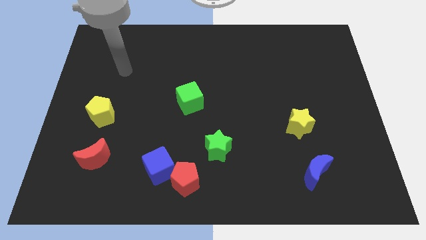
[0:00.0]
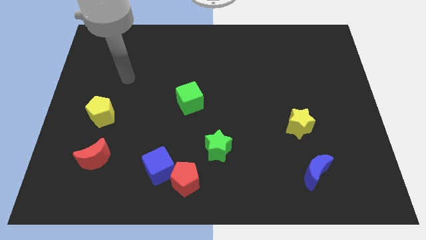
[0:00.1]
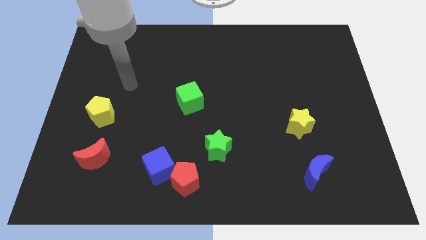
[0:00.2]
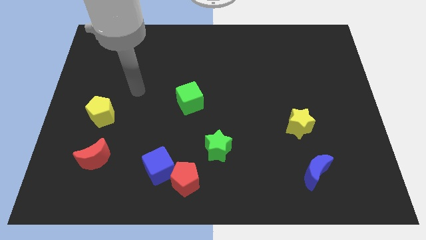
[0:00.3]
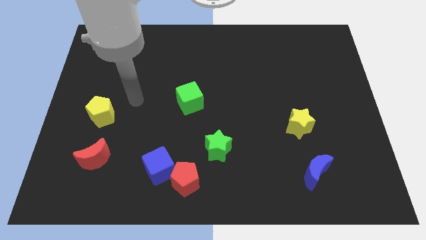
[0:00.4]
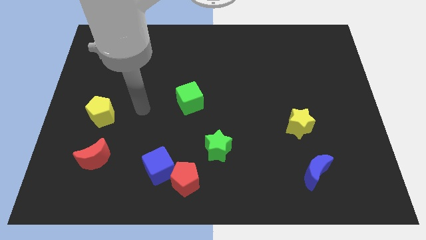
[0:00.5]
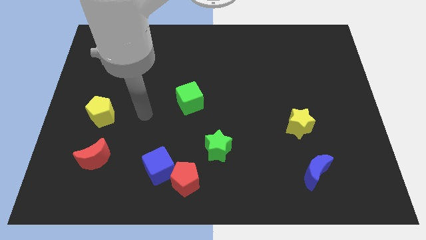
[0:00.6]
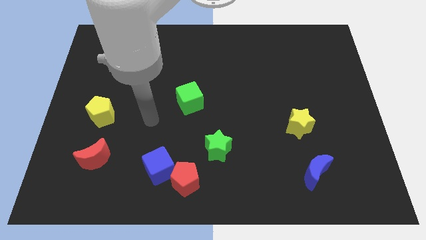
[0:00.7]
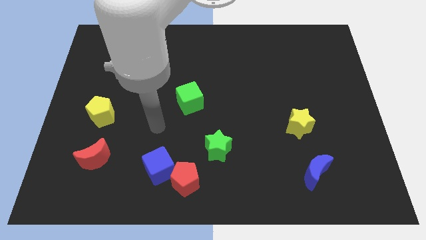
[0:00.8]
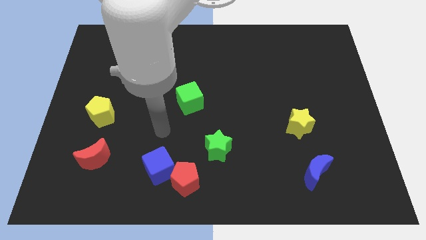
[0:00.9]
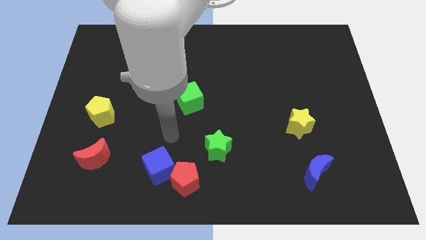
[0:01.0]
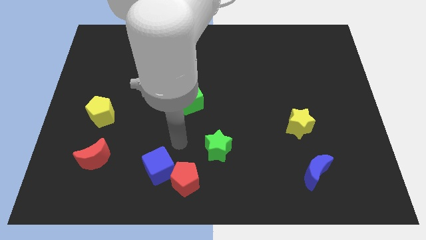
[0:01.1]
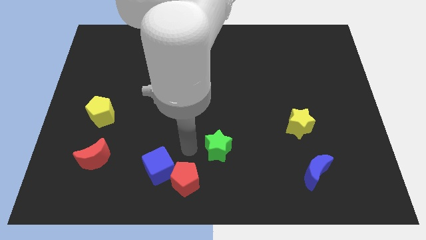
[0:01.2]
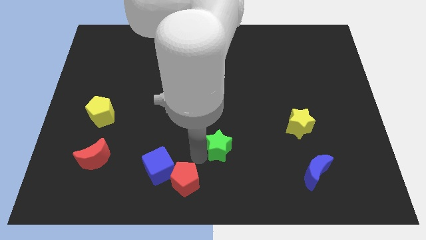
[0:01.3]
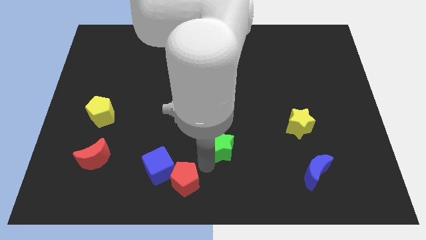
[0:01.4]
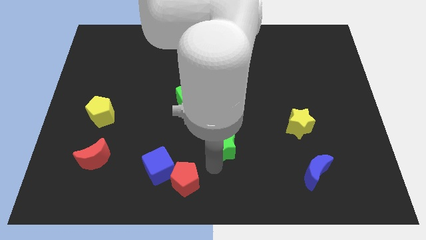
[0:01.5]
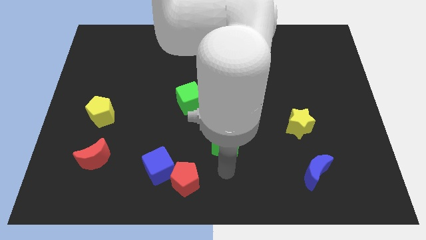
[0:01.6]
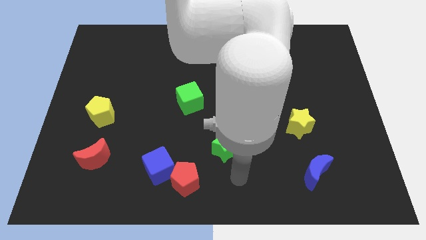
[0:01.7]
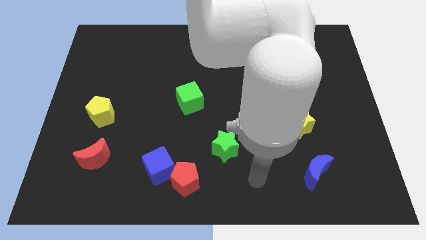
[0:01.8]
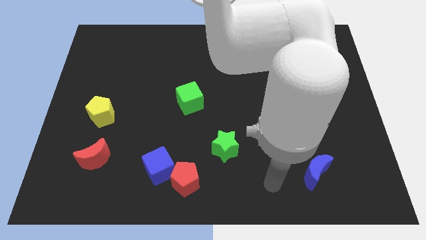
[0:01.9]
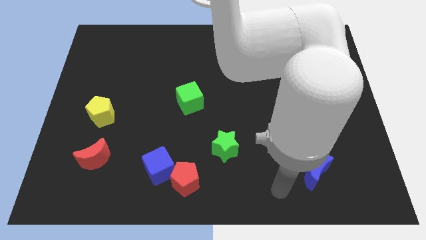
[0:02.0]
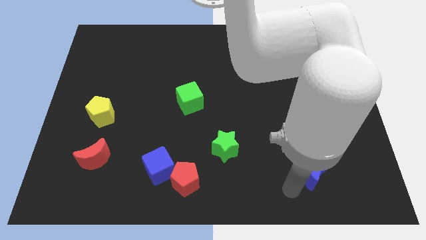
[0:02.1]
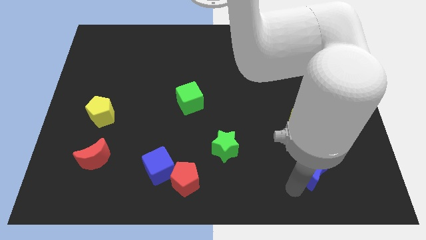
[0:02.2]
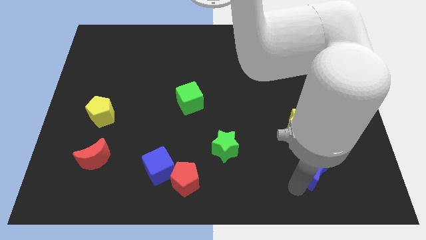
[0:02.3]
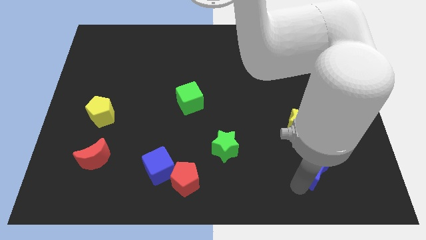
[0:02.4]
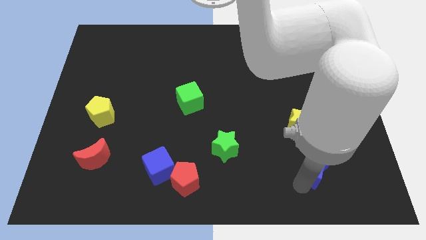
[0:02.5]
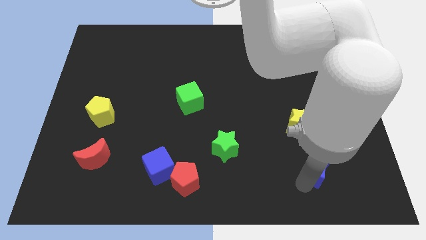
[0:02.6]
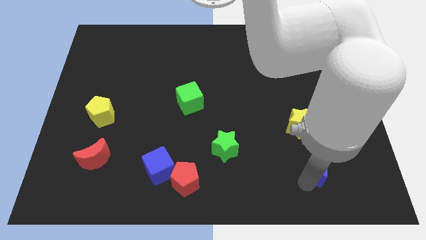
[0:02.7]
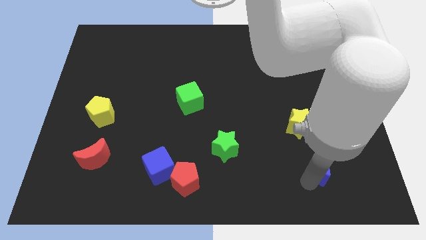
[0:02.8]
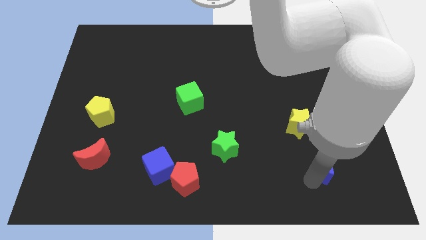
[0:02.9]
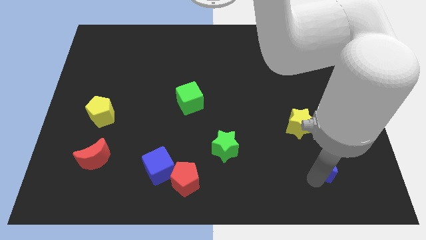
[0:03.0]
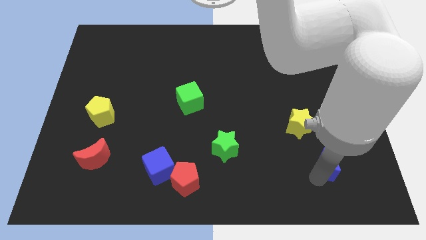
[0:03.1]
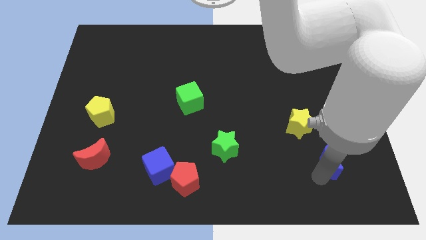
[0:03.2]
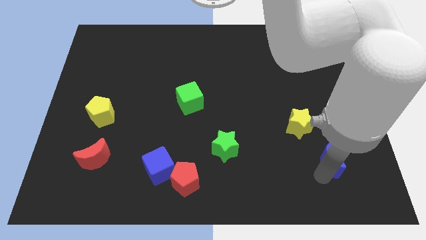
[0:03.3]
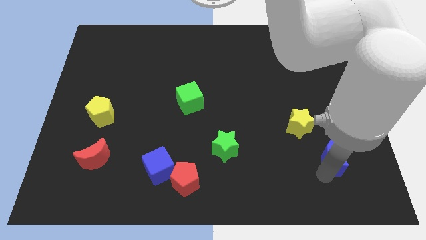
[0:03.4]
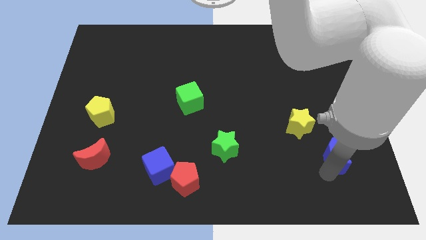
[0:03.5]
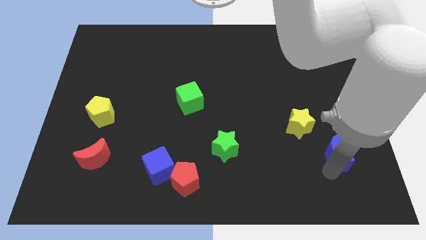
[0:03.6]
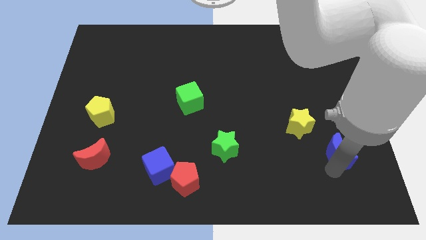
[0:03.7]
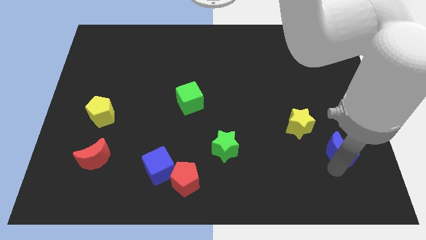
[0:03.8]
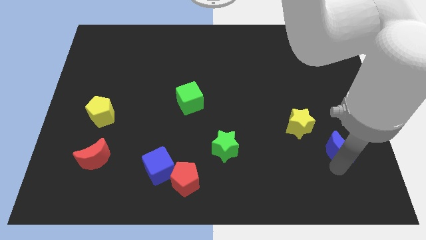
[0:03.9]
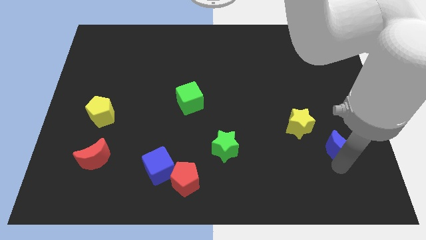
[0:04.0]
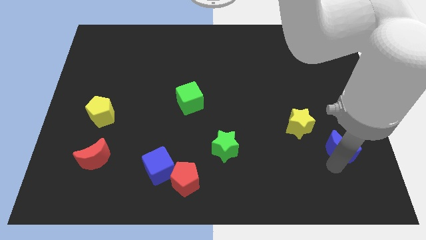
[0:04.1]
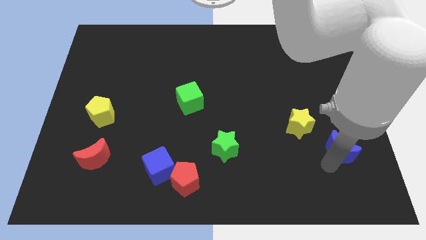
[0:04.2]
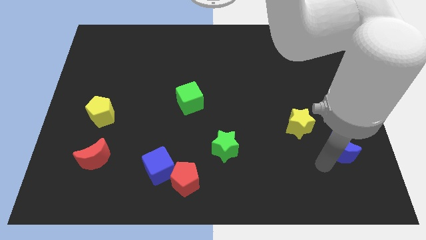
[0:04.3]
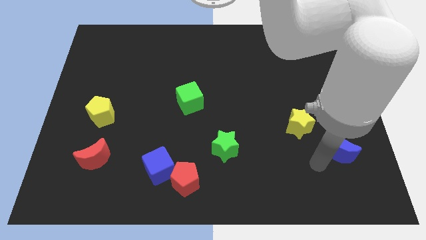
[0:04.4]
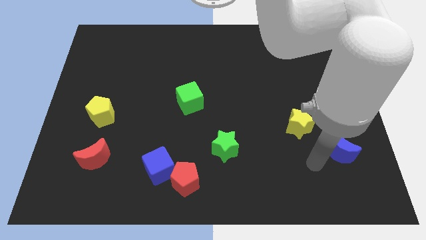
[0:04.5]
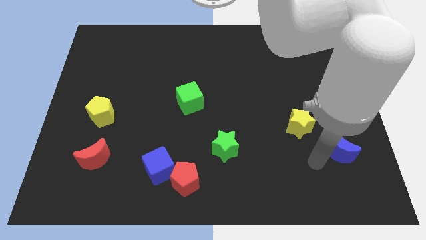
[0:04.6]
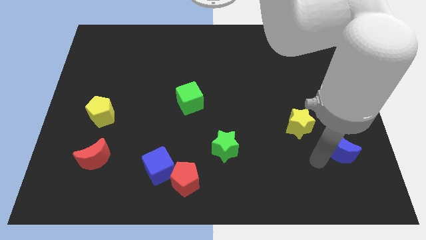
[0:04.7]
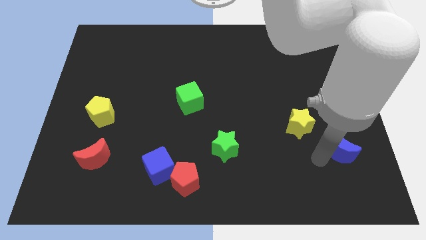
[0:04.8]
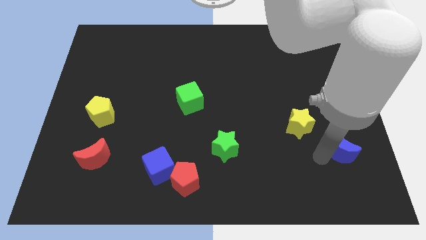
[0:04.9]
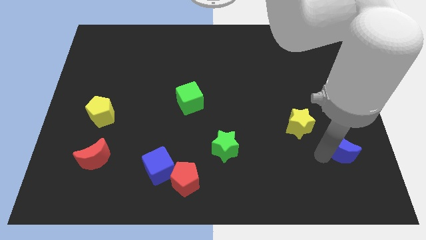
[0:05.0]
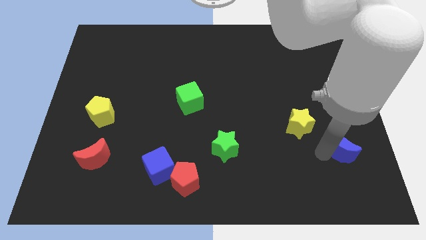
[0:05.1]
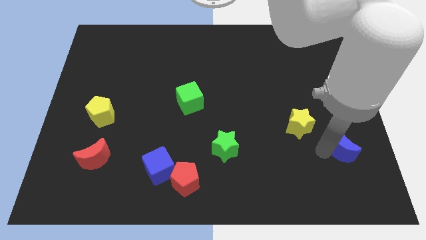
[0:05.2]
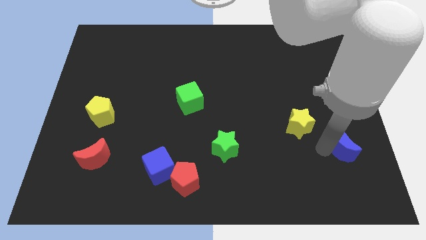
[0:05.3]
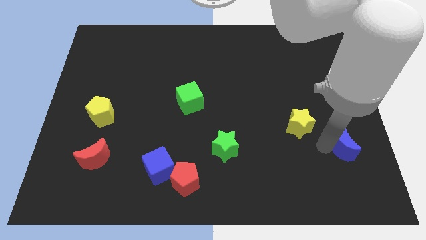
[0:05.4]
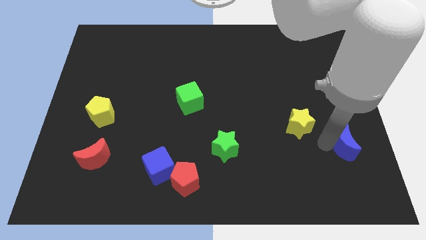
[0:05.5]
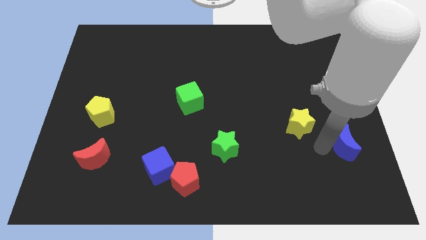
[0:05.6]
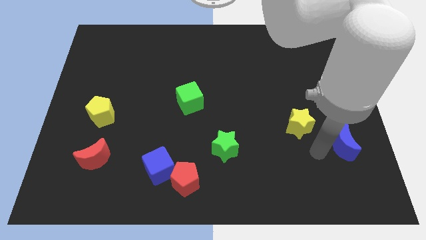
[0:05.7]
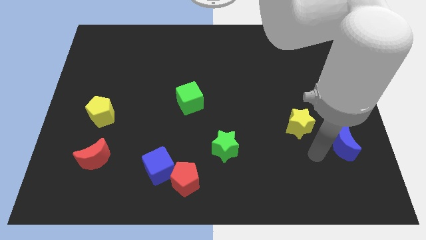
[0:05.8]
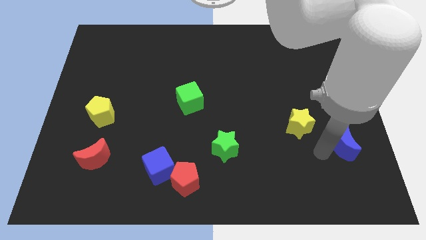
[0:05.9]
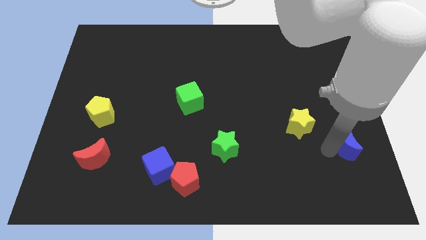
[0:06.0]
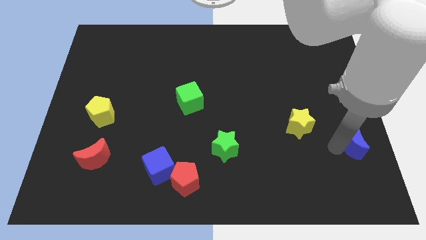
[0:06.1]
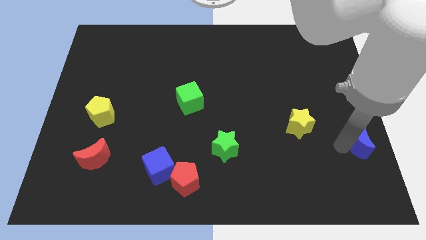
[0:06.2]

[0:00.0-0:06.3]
push the blue moon to the right side

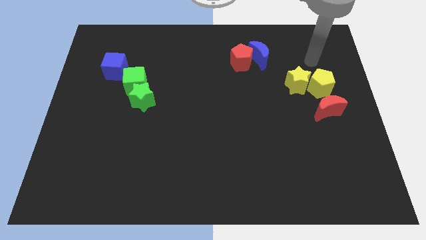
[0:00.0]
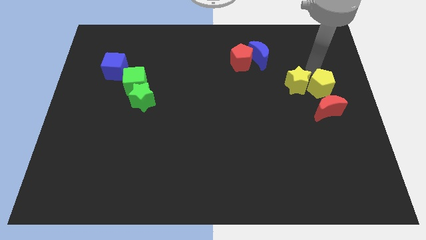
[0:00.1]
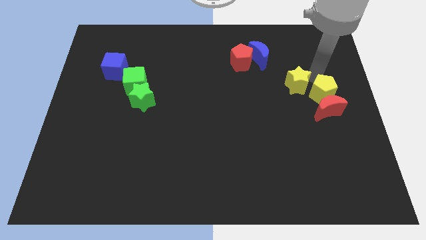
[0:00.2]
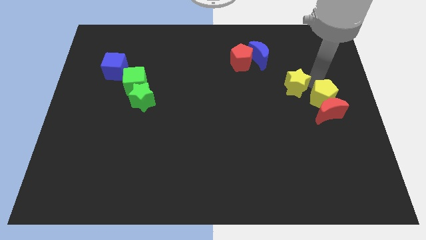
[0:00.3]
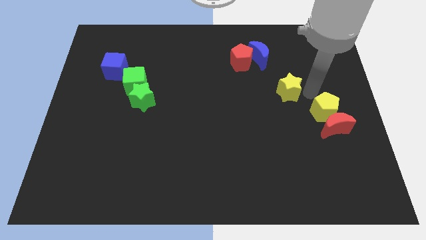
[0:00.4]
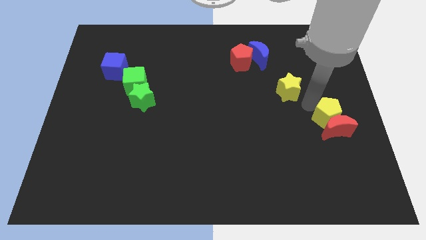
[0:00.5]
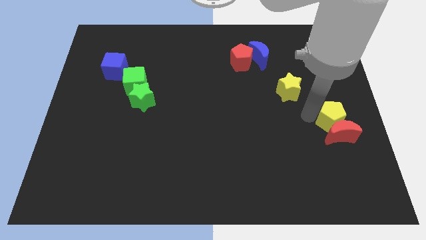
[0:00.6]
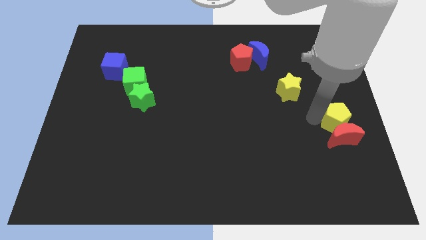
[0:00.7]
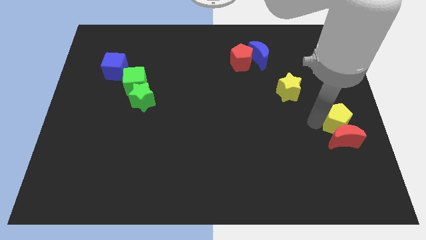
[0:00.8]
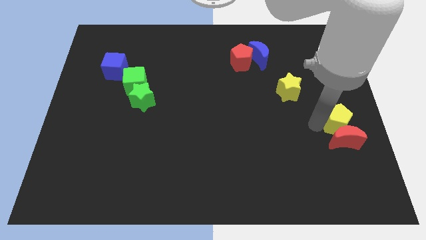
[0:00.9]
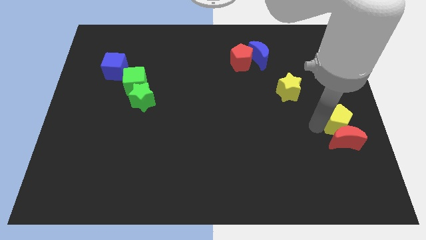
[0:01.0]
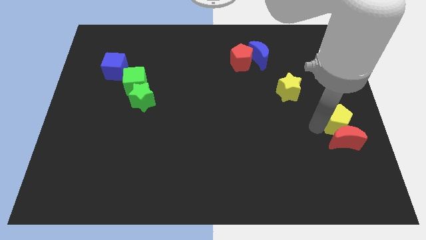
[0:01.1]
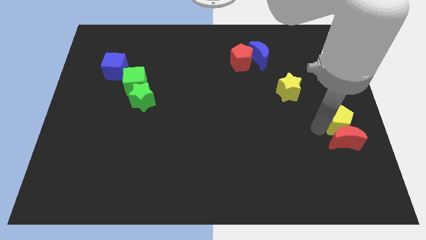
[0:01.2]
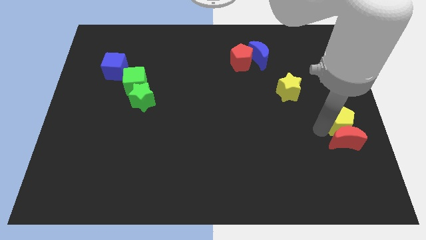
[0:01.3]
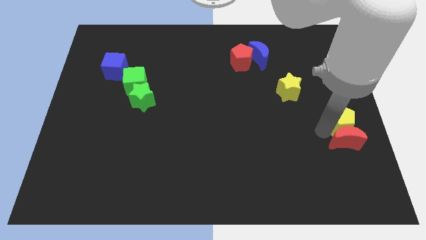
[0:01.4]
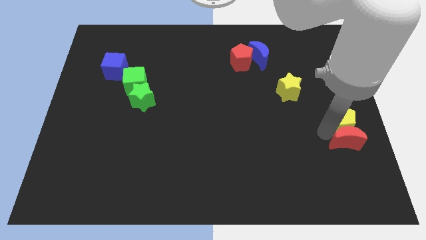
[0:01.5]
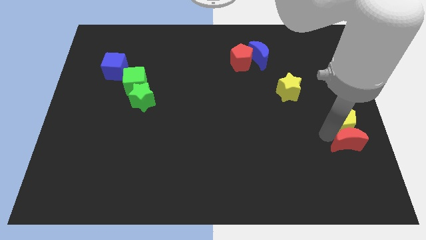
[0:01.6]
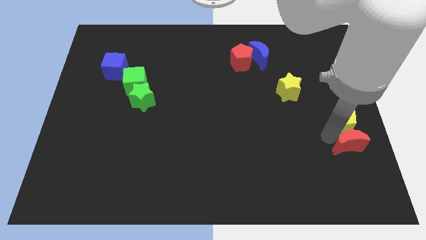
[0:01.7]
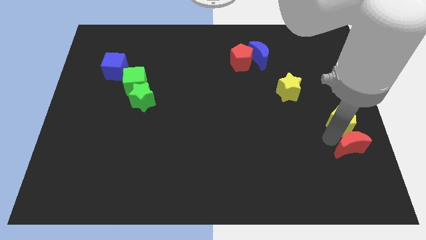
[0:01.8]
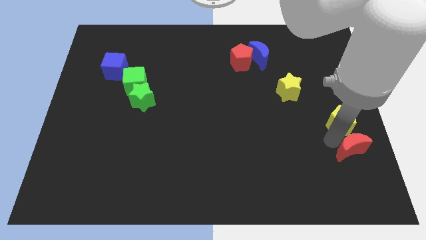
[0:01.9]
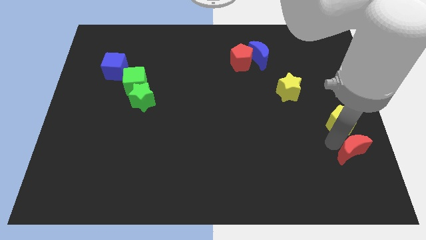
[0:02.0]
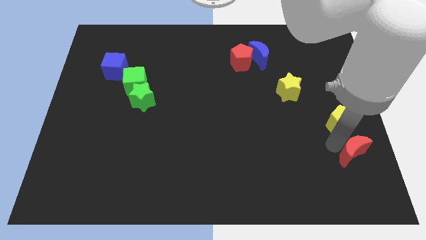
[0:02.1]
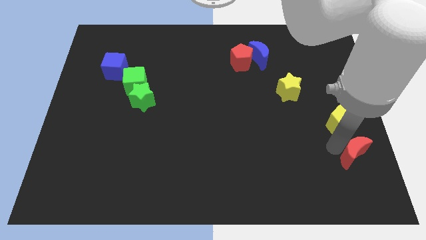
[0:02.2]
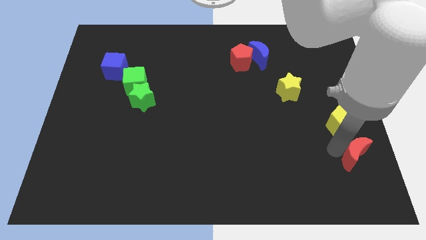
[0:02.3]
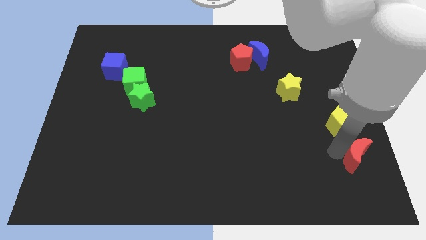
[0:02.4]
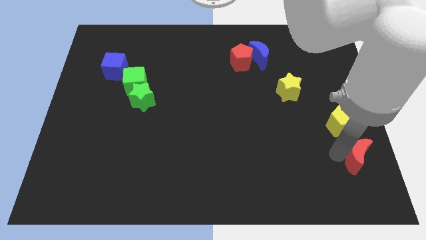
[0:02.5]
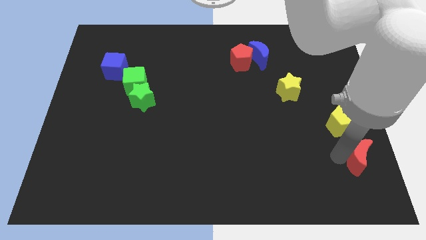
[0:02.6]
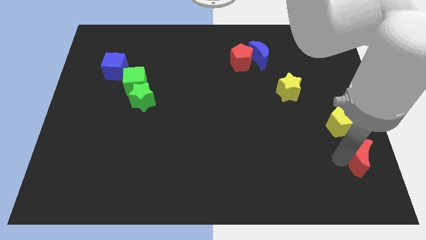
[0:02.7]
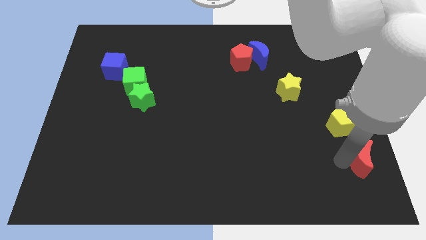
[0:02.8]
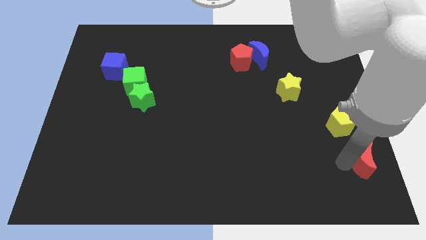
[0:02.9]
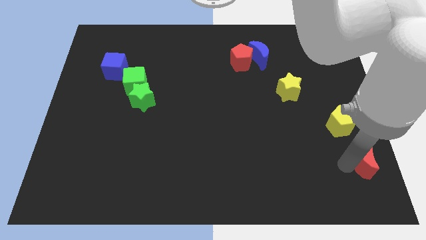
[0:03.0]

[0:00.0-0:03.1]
push the red moon to the bottom right corner
